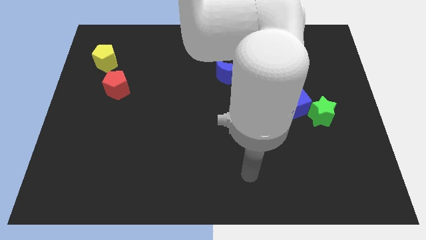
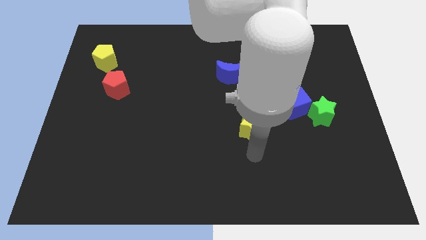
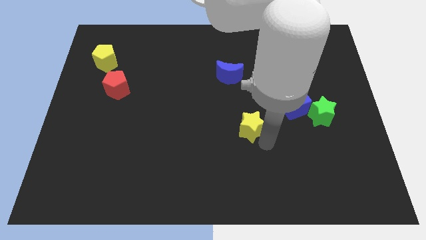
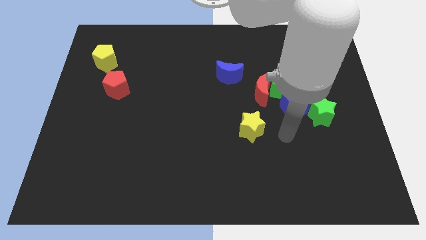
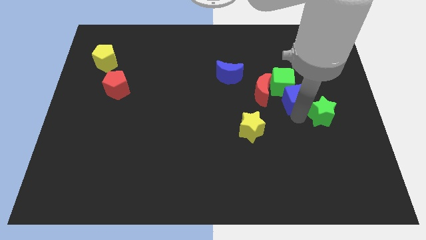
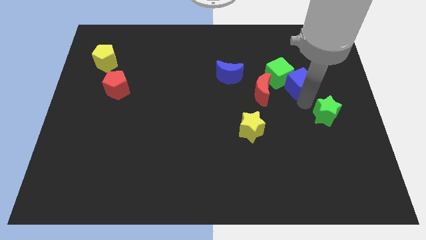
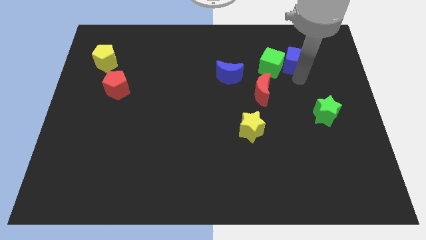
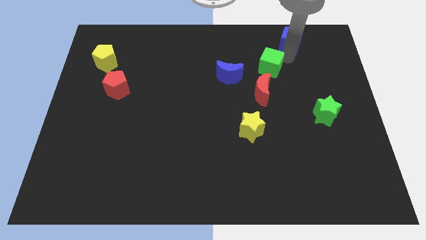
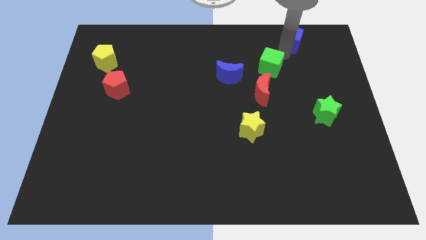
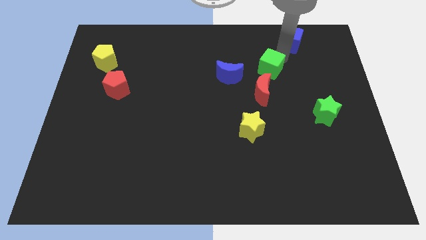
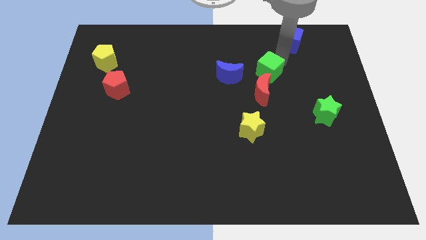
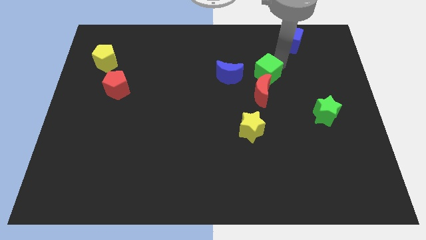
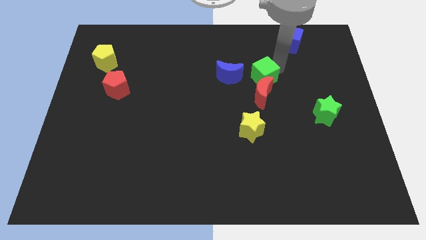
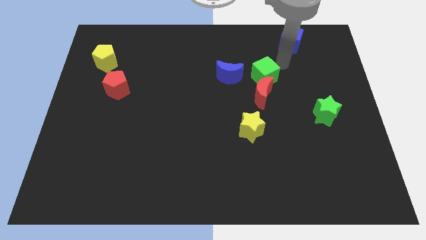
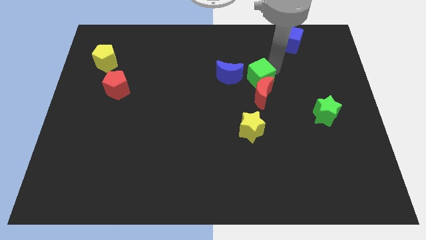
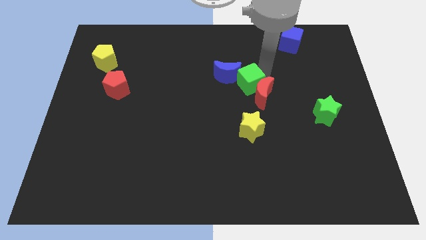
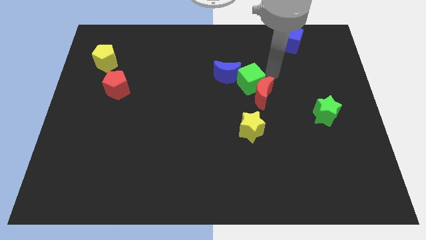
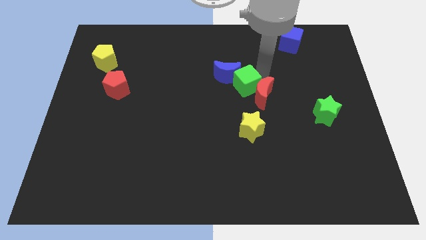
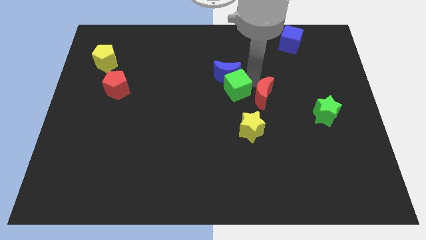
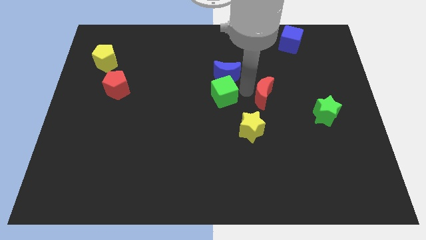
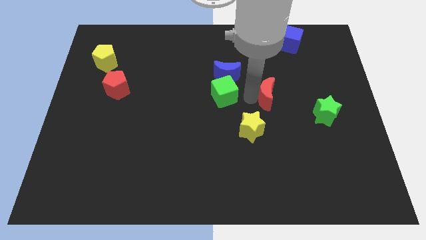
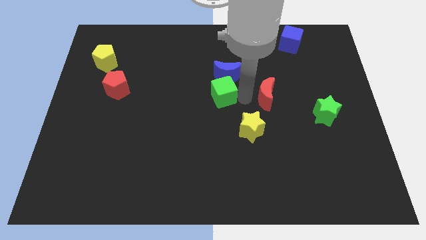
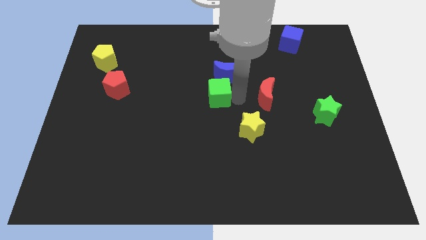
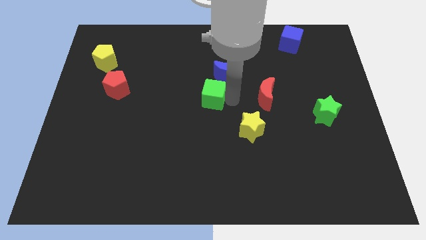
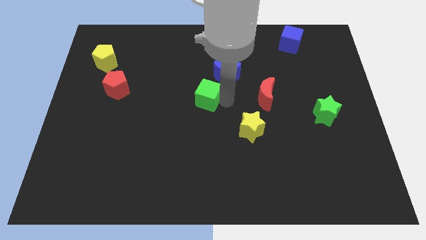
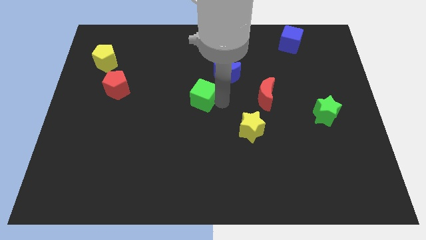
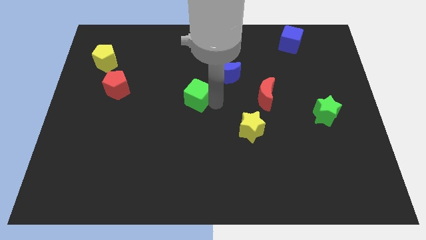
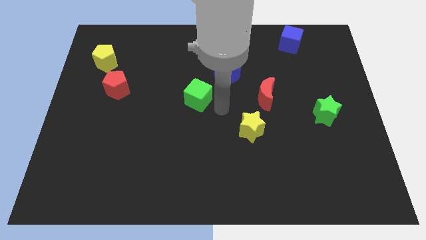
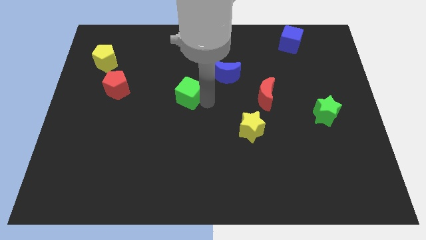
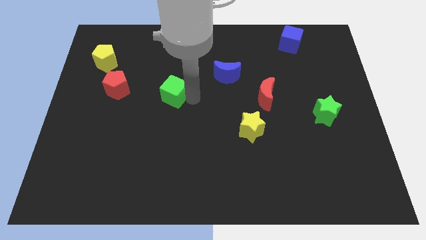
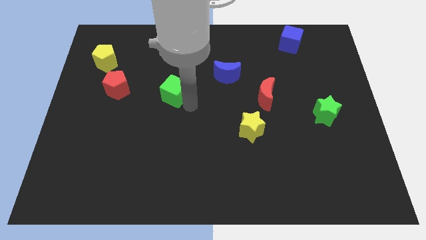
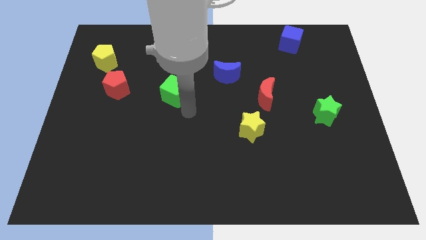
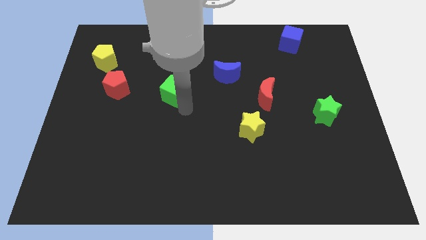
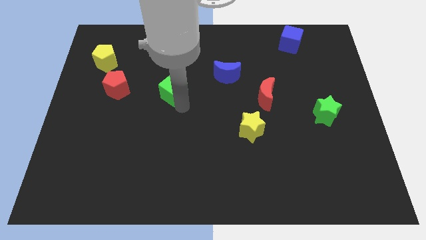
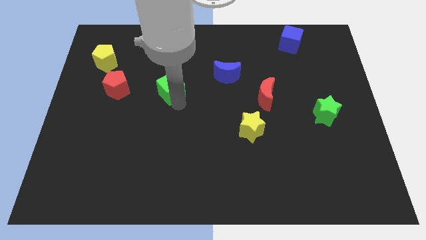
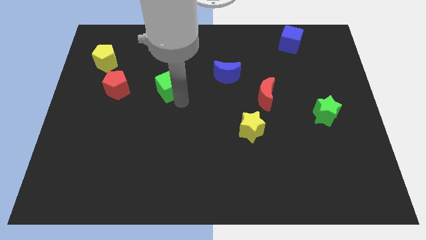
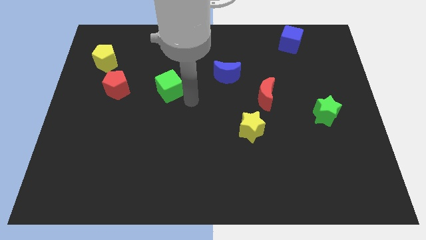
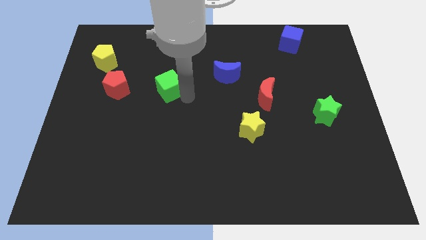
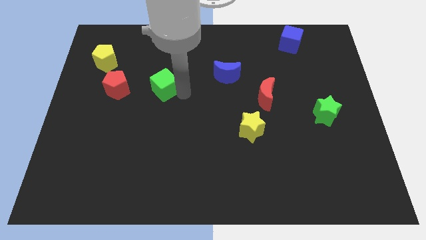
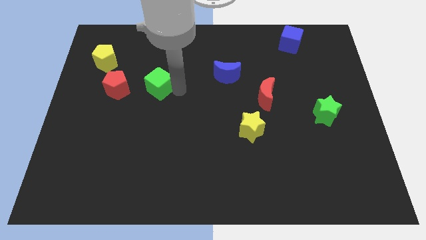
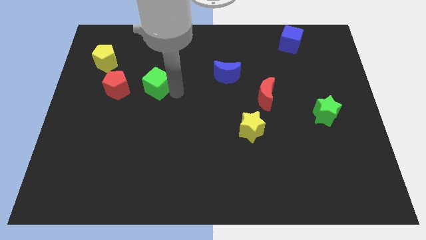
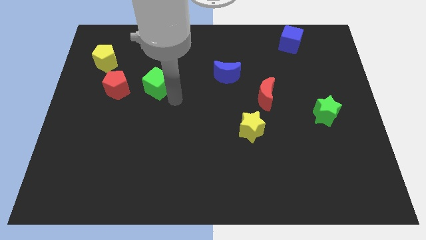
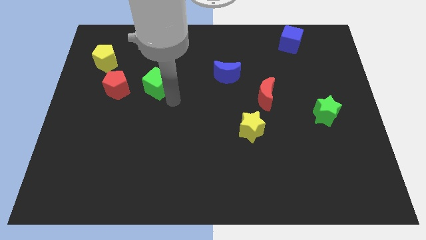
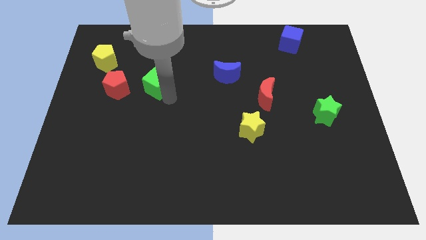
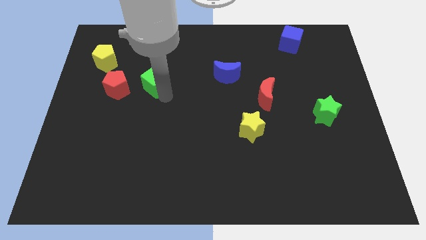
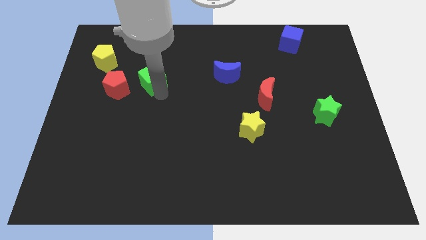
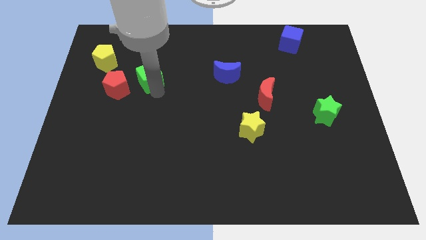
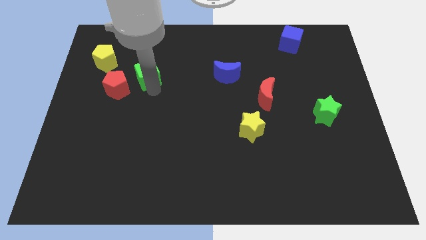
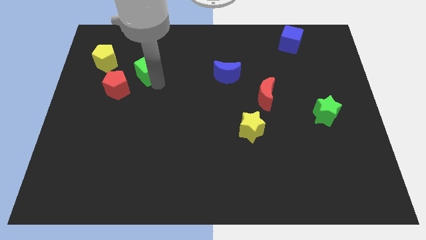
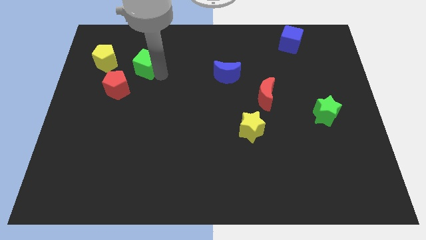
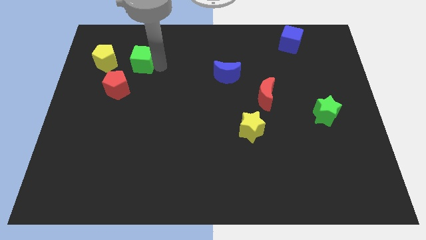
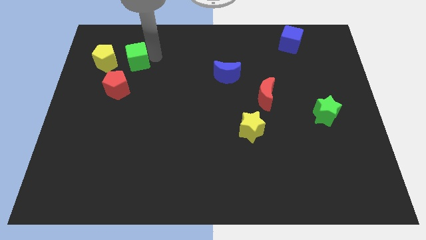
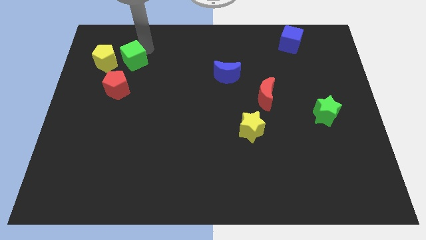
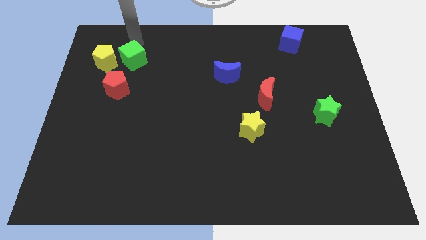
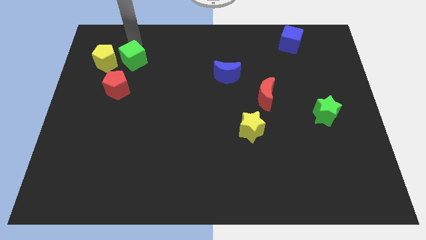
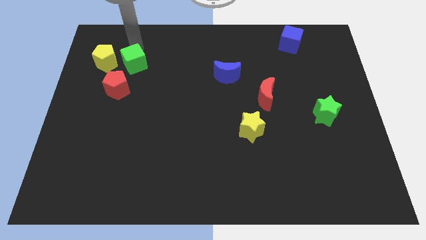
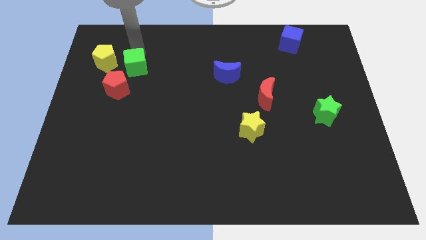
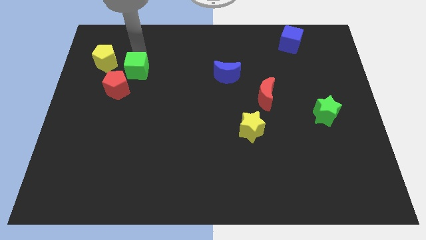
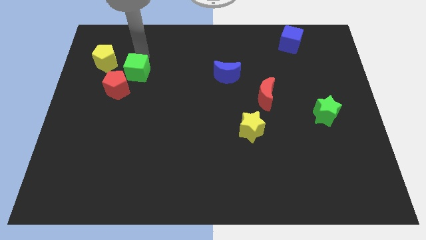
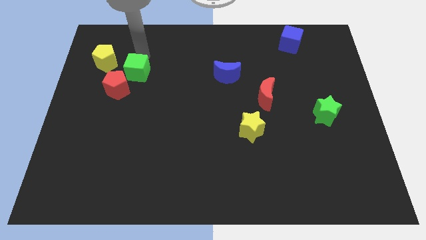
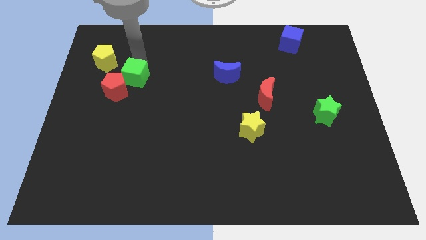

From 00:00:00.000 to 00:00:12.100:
move the green cube to the red pentagon
